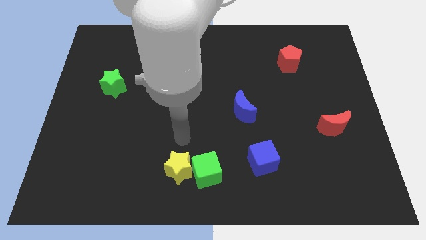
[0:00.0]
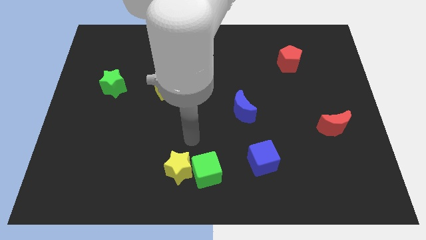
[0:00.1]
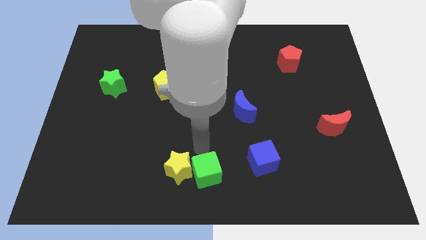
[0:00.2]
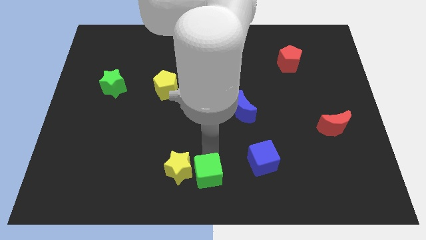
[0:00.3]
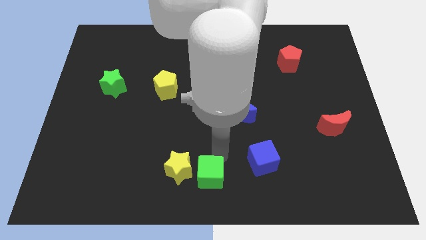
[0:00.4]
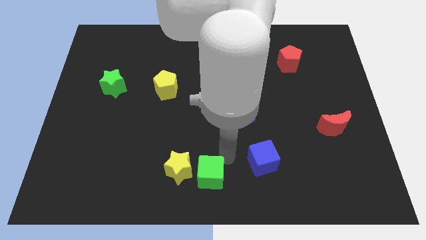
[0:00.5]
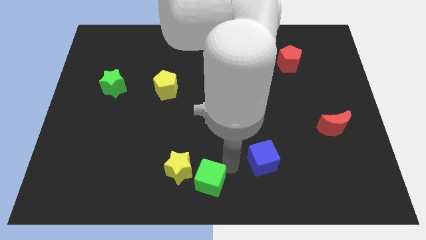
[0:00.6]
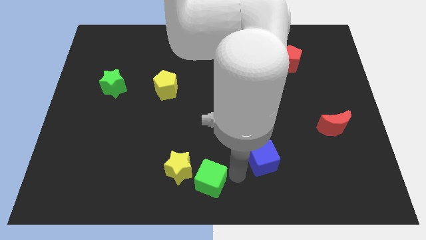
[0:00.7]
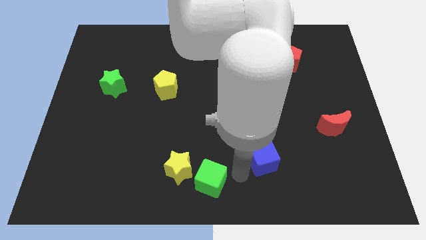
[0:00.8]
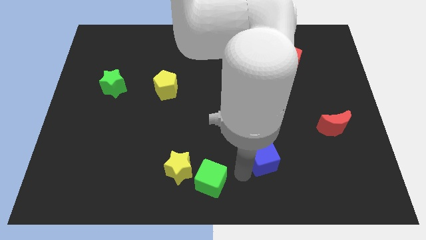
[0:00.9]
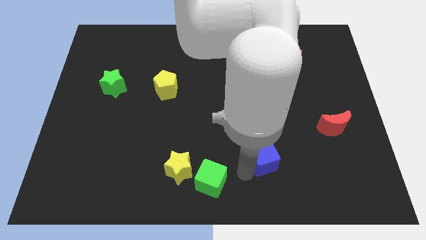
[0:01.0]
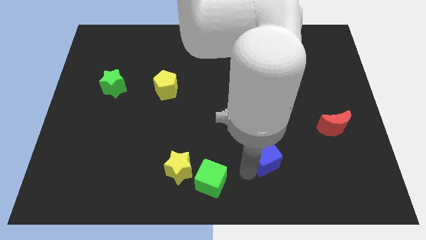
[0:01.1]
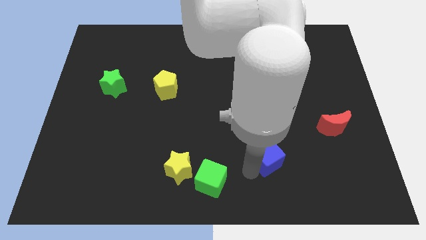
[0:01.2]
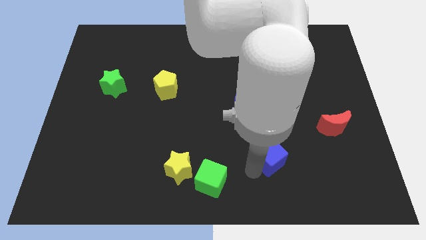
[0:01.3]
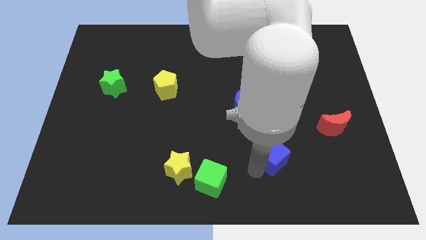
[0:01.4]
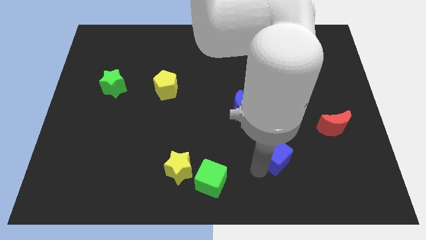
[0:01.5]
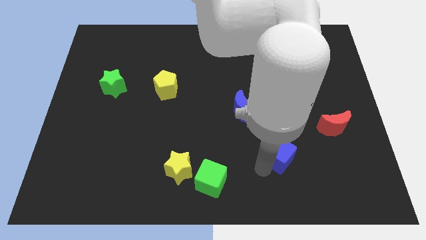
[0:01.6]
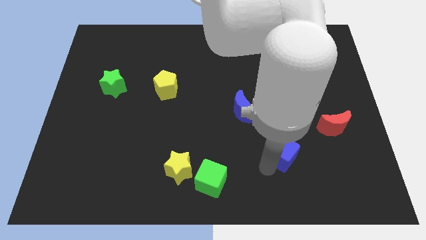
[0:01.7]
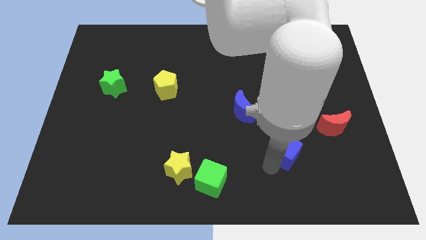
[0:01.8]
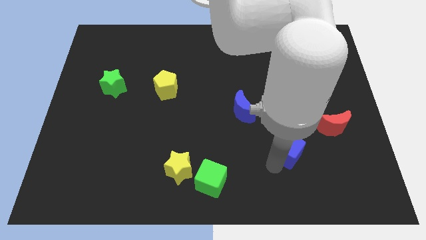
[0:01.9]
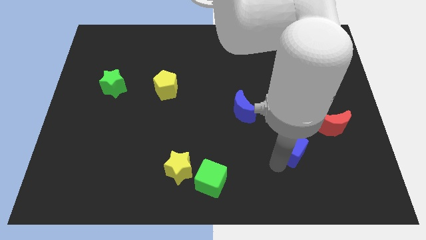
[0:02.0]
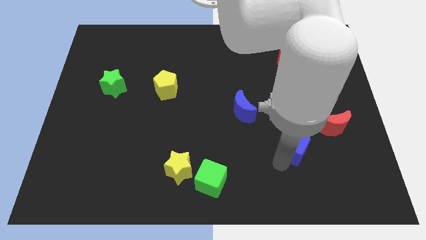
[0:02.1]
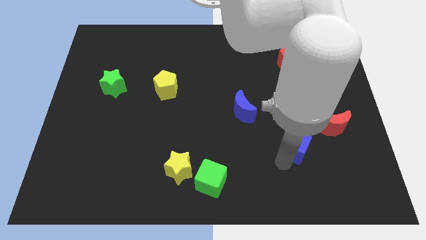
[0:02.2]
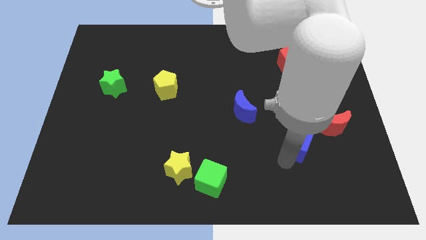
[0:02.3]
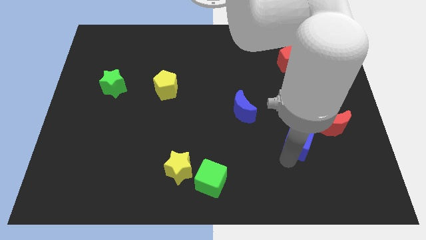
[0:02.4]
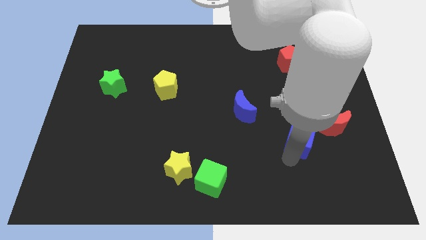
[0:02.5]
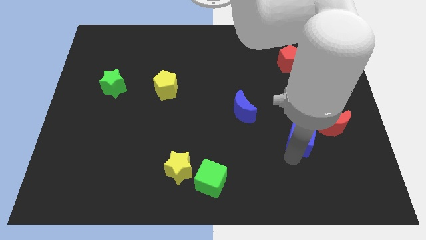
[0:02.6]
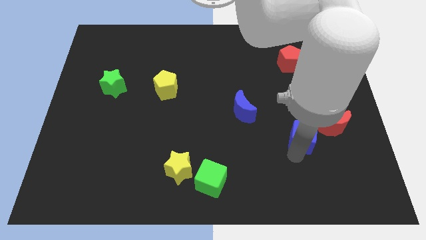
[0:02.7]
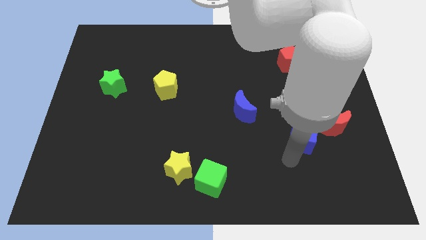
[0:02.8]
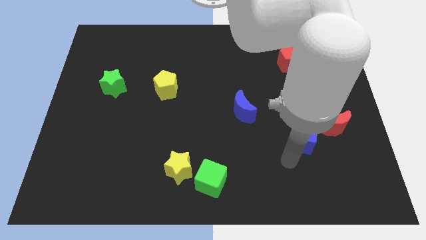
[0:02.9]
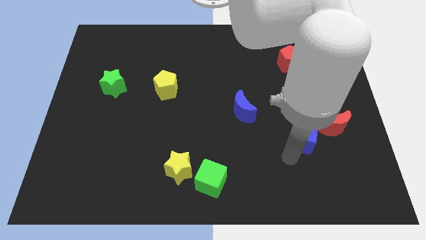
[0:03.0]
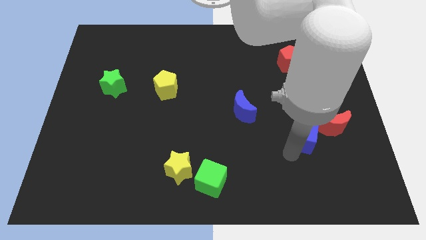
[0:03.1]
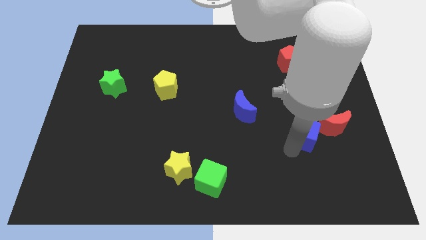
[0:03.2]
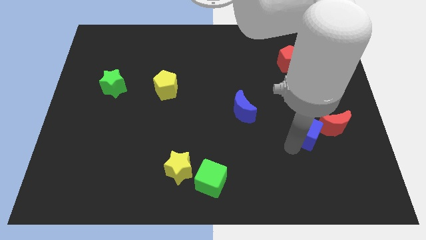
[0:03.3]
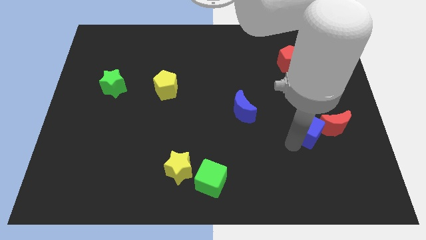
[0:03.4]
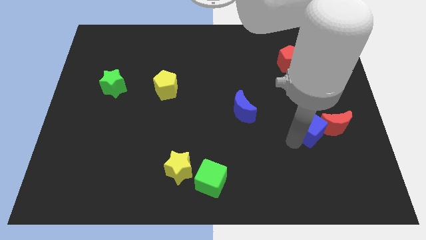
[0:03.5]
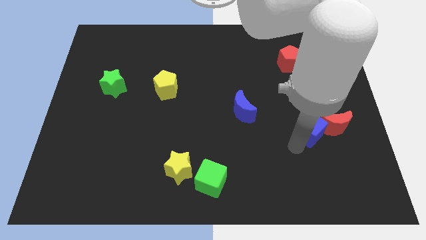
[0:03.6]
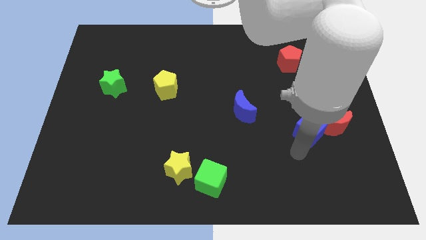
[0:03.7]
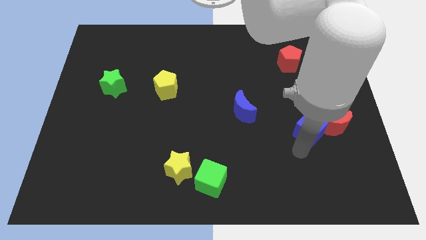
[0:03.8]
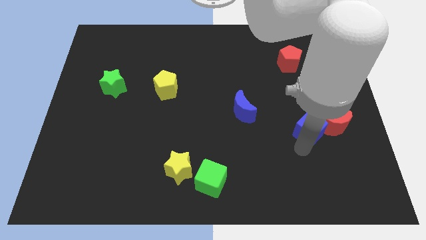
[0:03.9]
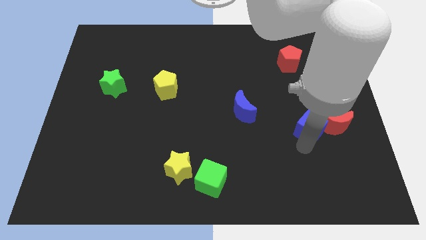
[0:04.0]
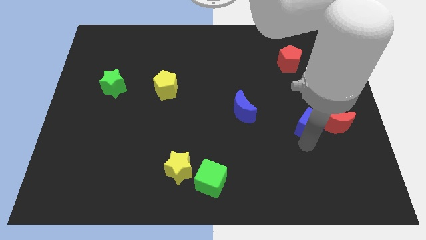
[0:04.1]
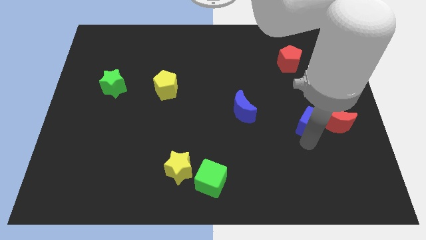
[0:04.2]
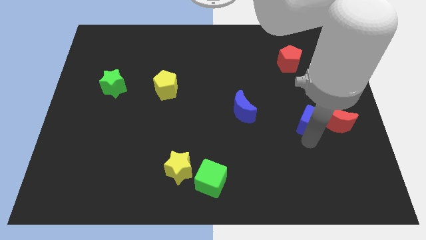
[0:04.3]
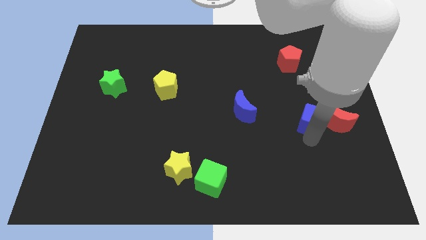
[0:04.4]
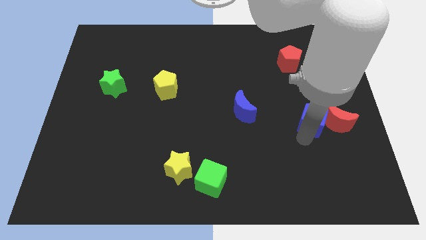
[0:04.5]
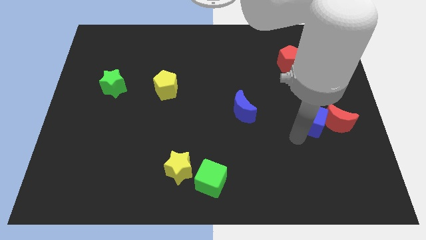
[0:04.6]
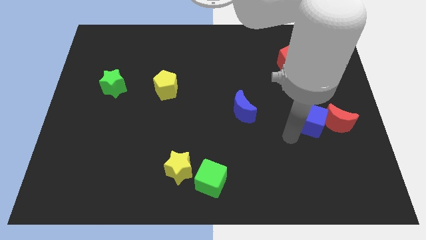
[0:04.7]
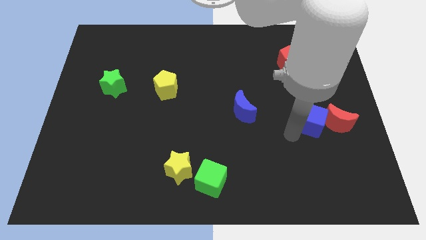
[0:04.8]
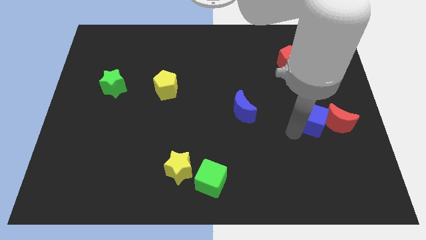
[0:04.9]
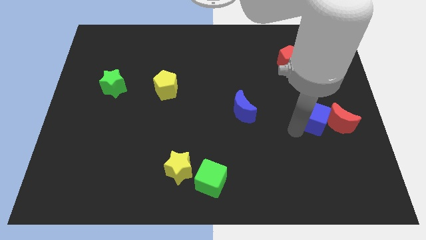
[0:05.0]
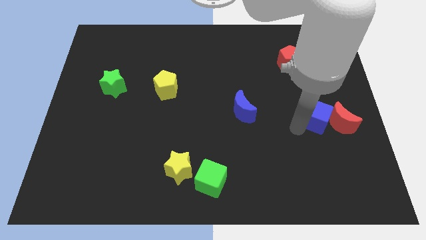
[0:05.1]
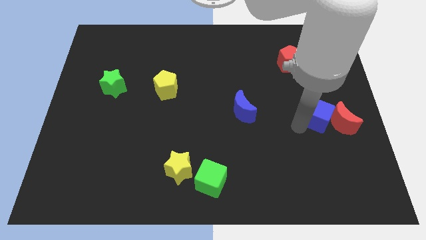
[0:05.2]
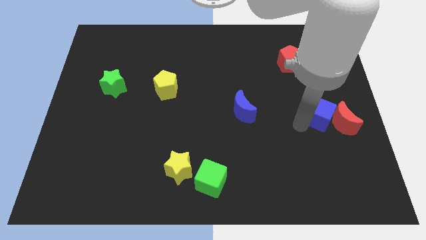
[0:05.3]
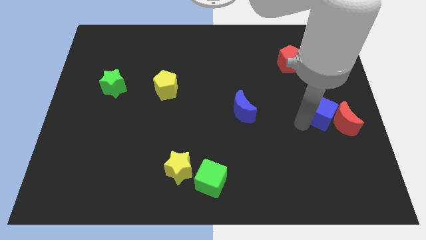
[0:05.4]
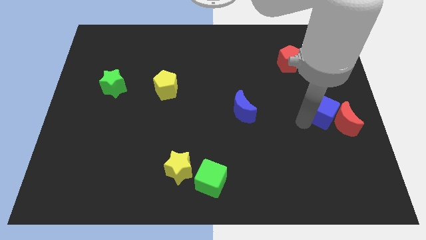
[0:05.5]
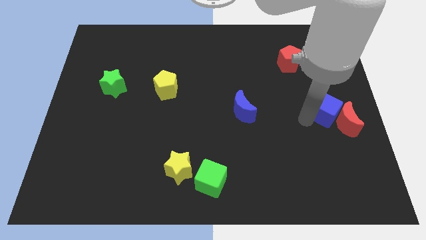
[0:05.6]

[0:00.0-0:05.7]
put the blue cube to the right side of the board
